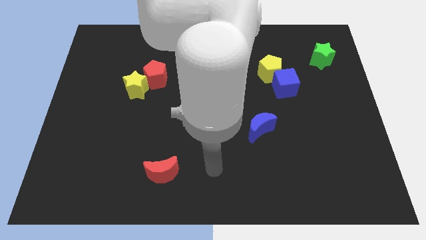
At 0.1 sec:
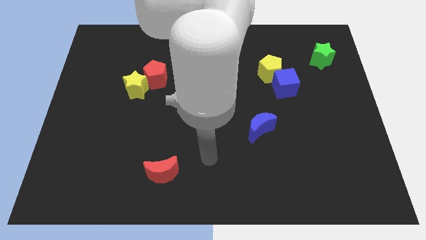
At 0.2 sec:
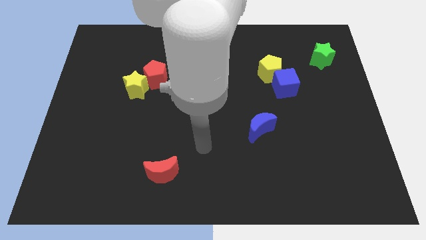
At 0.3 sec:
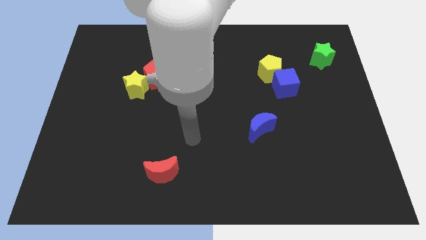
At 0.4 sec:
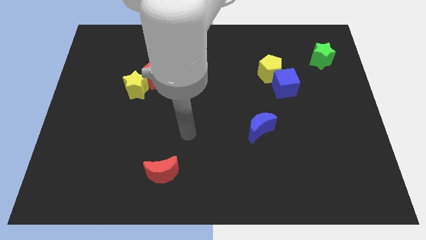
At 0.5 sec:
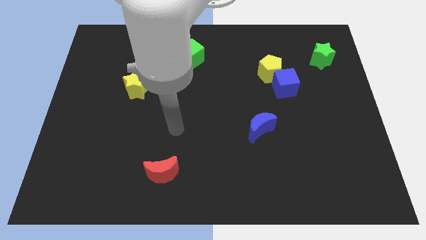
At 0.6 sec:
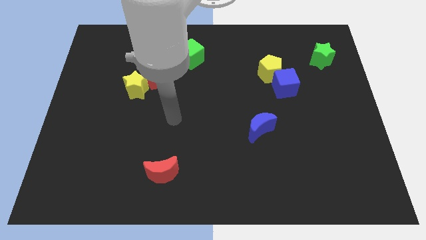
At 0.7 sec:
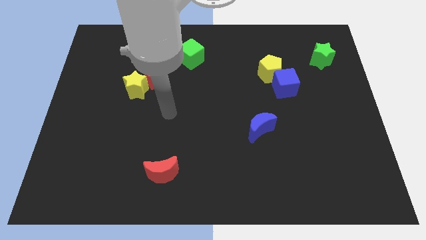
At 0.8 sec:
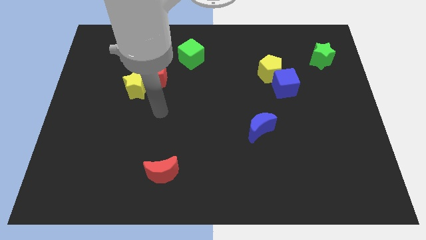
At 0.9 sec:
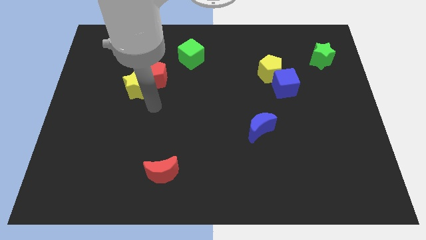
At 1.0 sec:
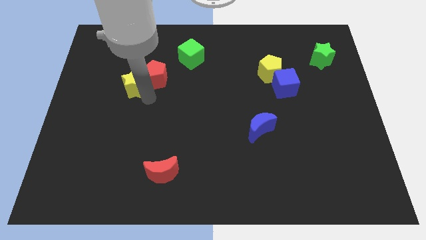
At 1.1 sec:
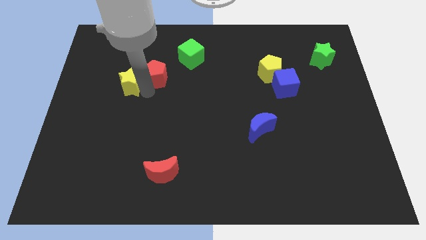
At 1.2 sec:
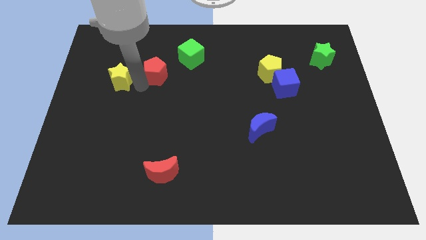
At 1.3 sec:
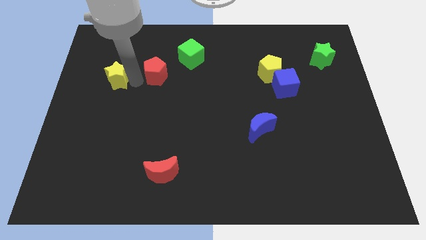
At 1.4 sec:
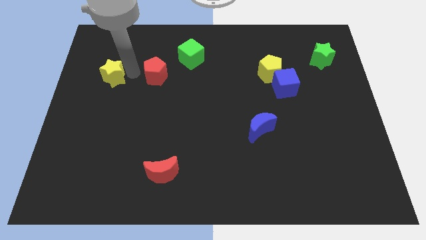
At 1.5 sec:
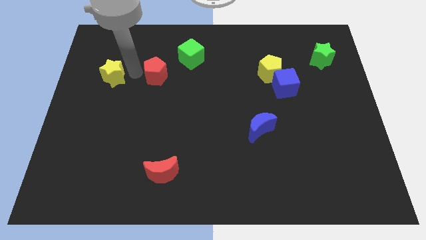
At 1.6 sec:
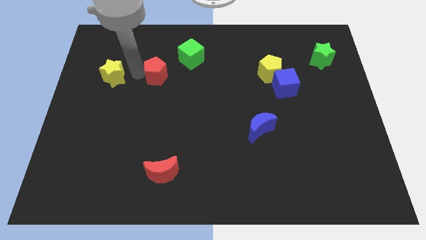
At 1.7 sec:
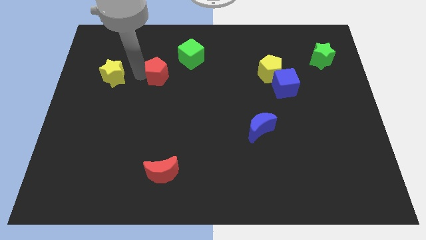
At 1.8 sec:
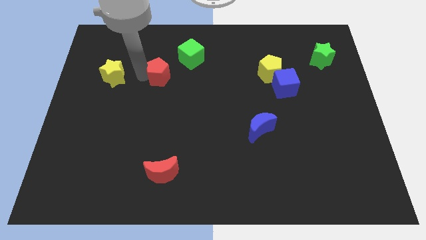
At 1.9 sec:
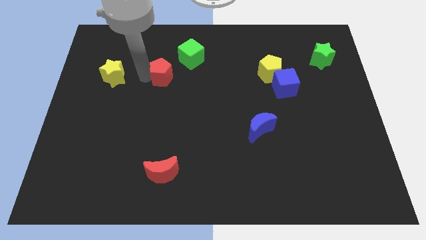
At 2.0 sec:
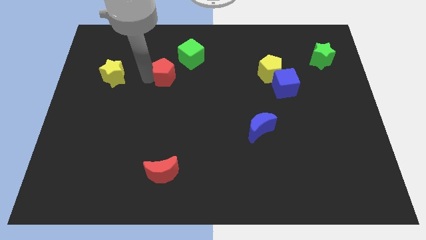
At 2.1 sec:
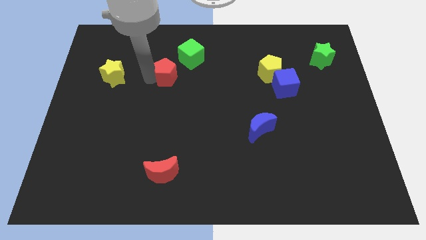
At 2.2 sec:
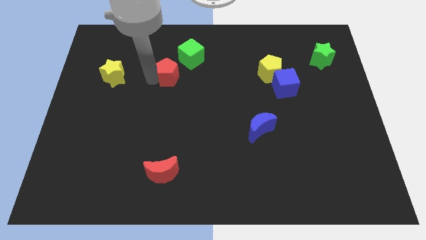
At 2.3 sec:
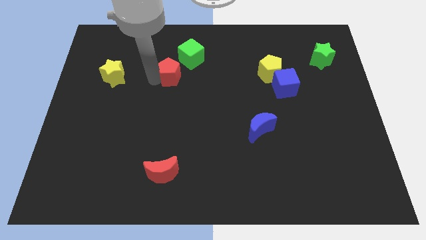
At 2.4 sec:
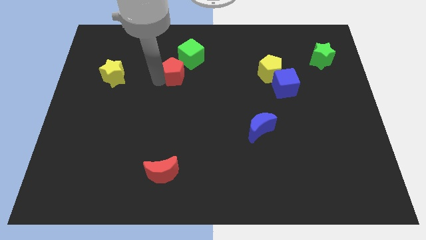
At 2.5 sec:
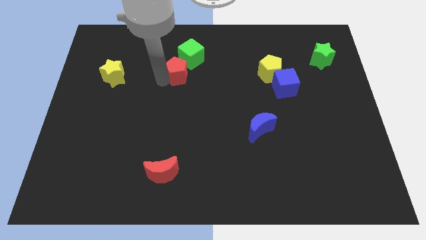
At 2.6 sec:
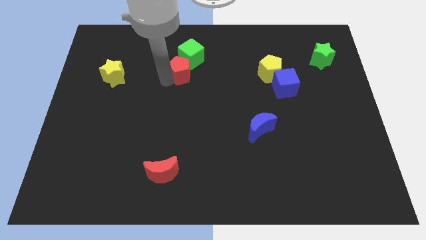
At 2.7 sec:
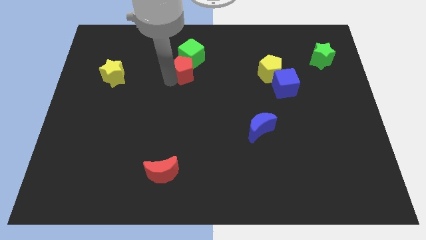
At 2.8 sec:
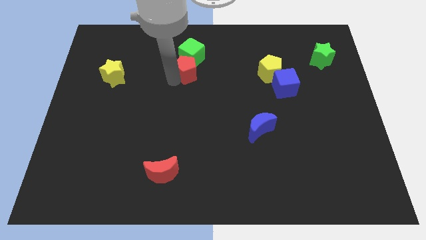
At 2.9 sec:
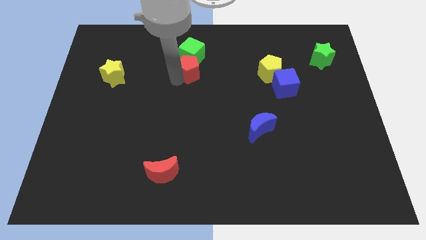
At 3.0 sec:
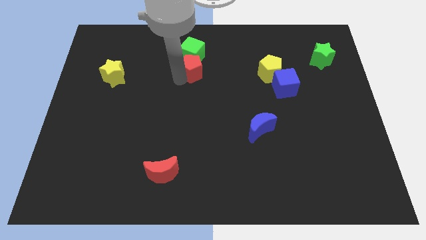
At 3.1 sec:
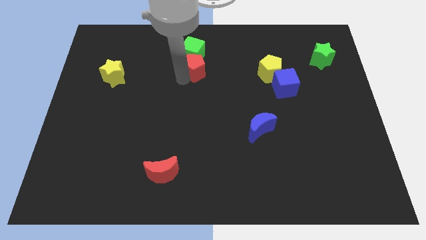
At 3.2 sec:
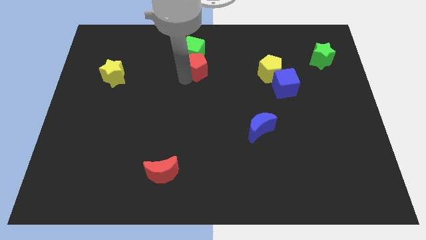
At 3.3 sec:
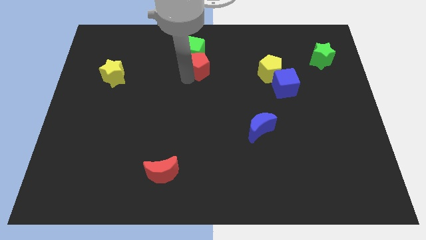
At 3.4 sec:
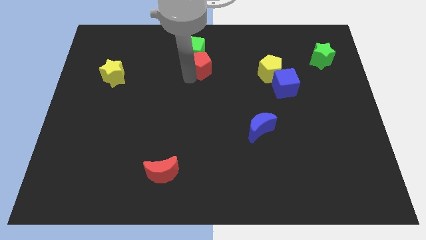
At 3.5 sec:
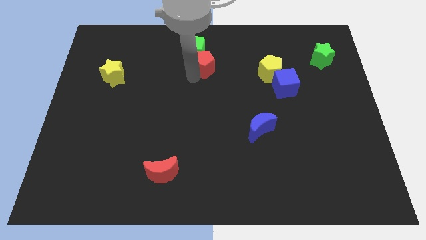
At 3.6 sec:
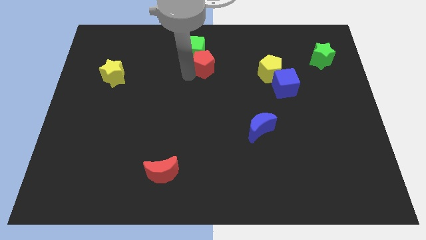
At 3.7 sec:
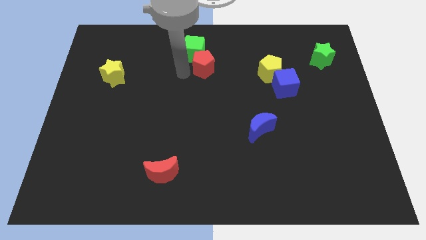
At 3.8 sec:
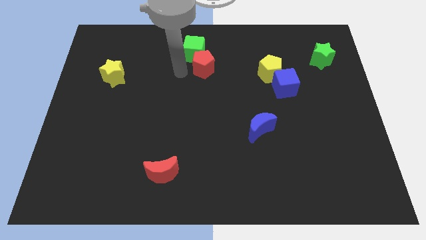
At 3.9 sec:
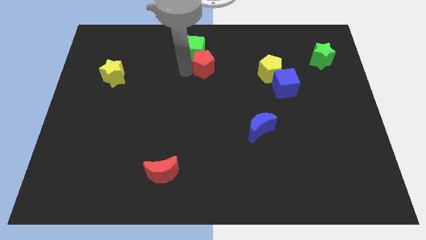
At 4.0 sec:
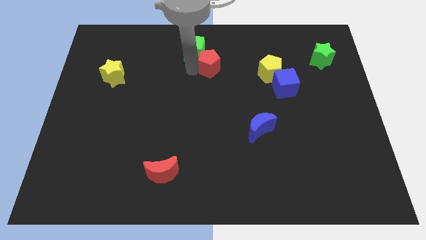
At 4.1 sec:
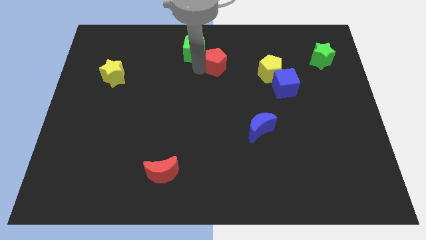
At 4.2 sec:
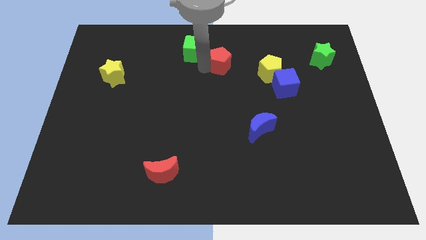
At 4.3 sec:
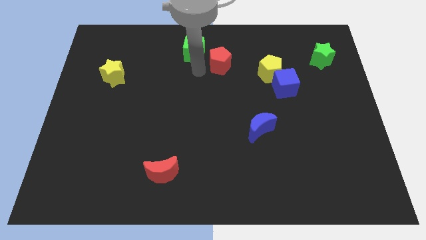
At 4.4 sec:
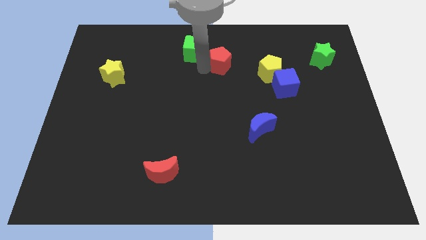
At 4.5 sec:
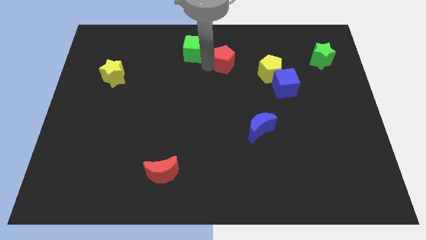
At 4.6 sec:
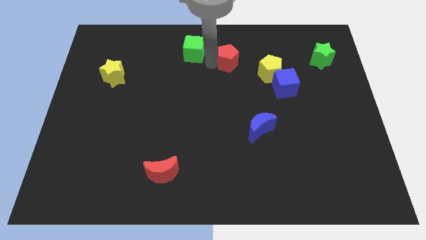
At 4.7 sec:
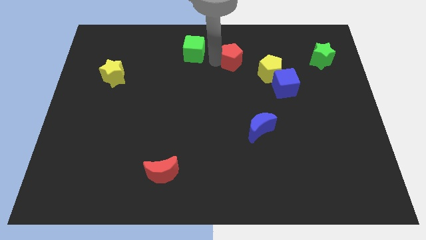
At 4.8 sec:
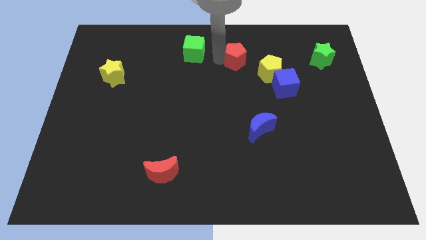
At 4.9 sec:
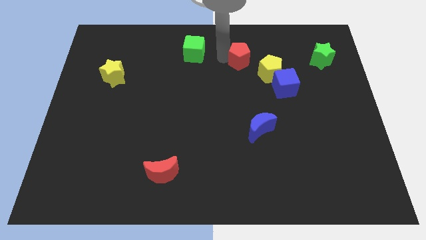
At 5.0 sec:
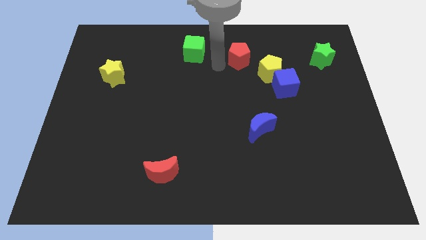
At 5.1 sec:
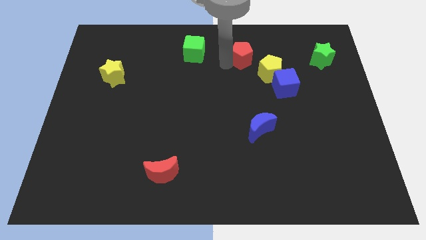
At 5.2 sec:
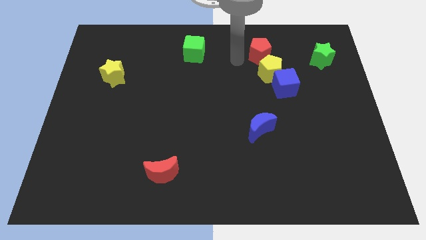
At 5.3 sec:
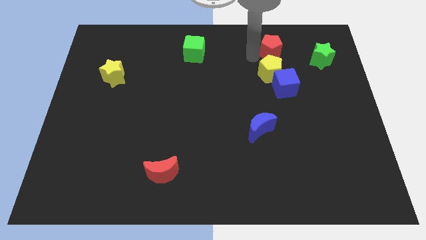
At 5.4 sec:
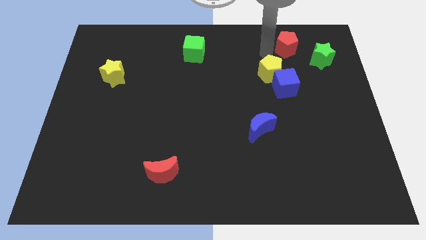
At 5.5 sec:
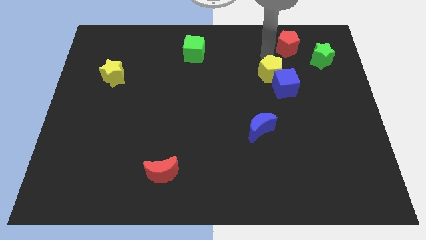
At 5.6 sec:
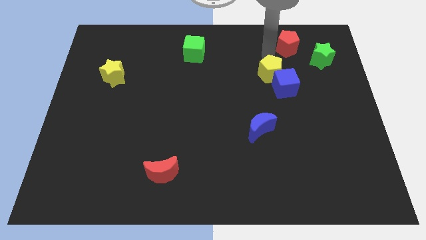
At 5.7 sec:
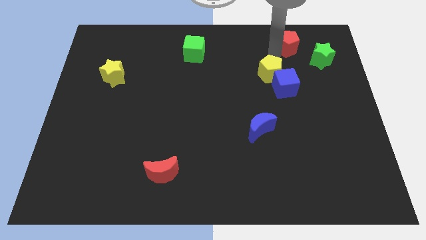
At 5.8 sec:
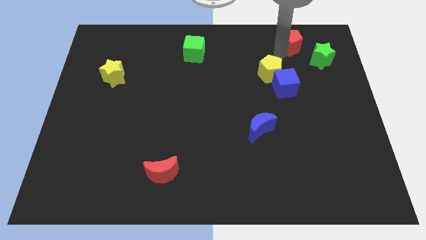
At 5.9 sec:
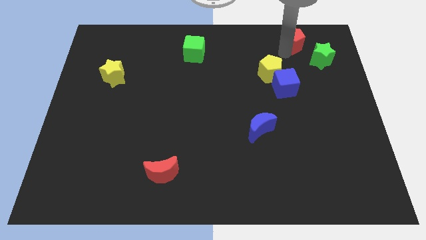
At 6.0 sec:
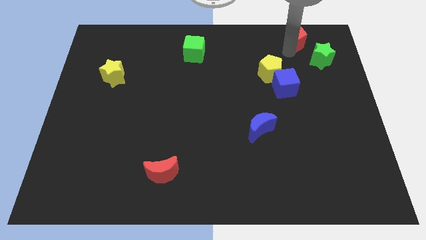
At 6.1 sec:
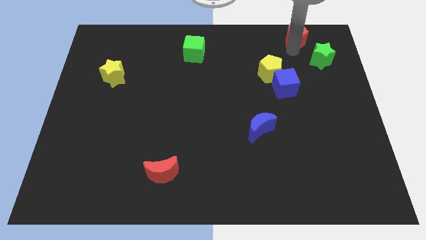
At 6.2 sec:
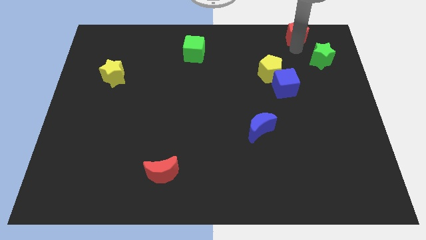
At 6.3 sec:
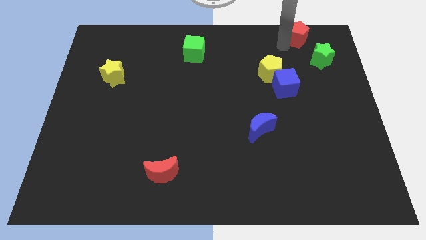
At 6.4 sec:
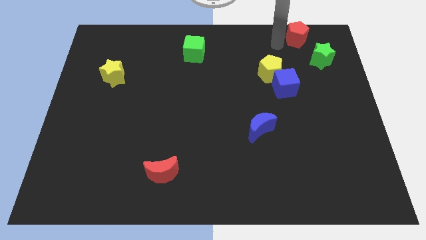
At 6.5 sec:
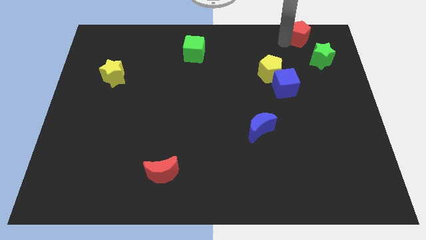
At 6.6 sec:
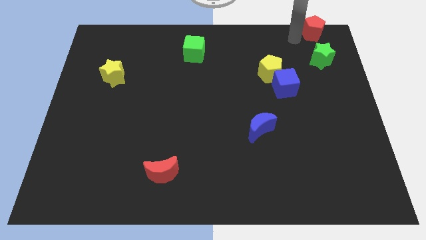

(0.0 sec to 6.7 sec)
move the red pentagon to the upper right corner
